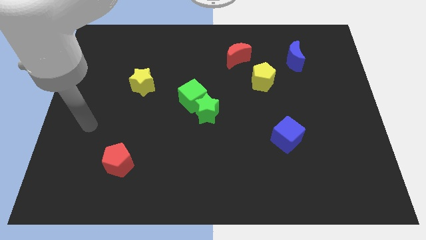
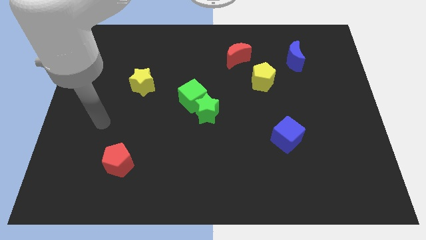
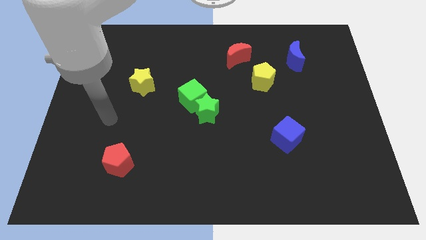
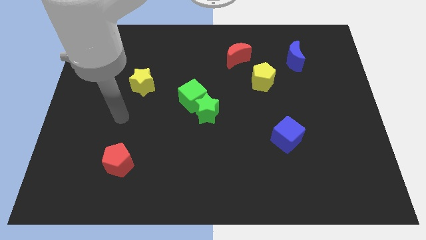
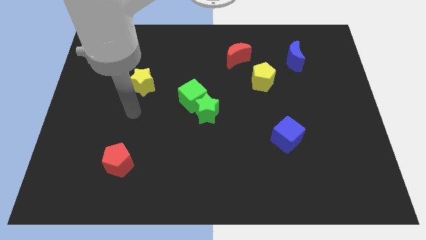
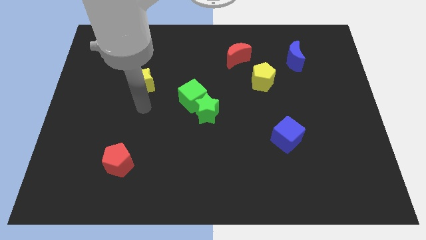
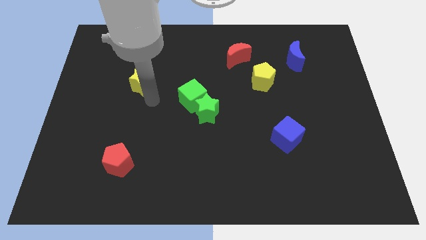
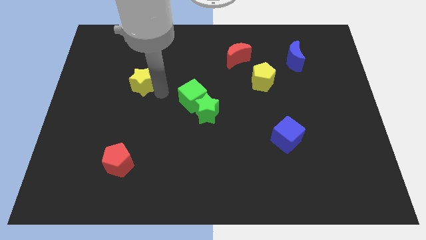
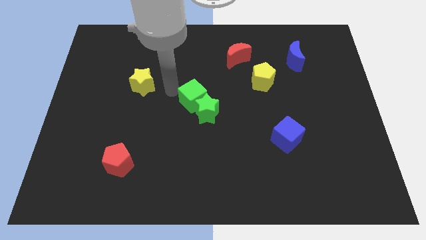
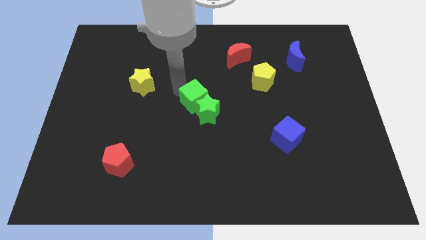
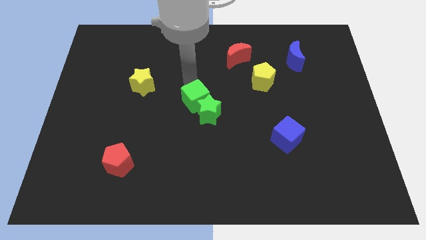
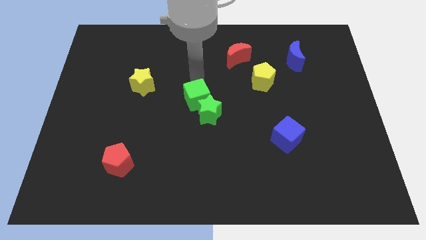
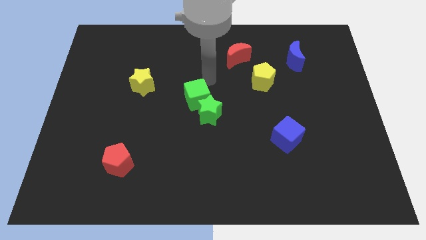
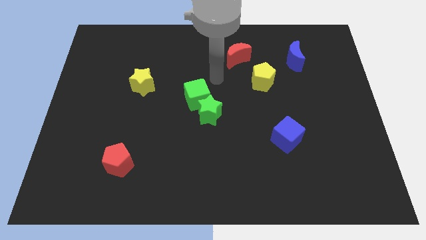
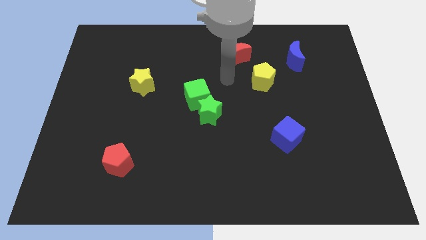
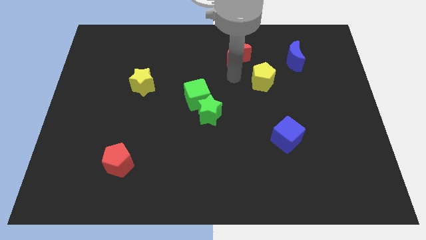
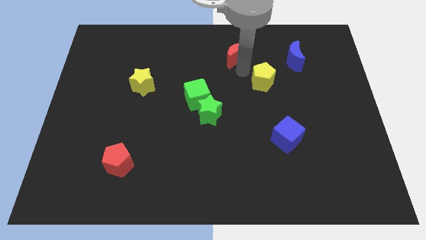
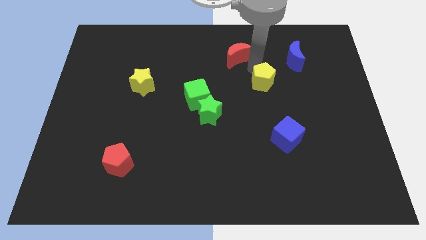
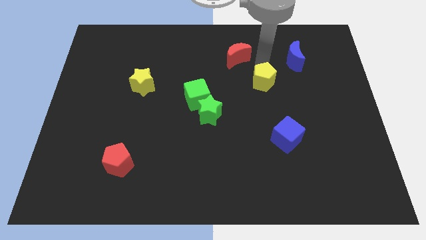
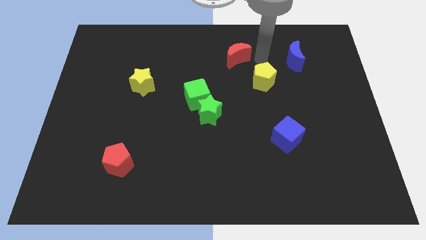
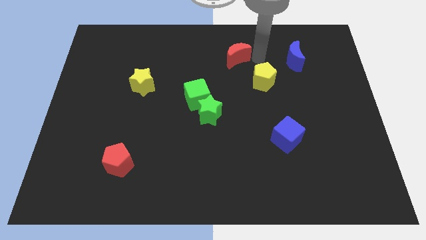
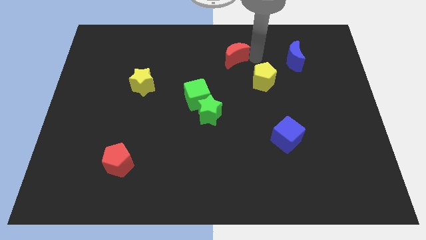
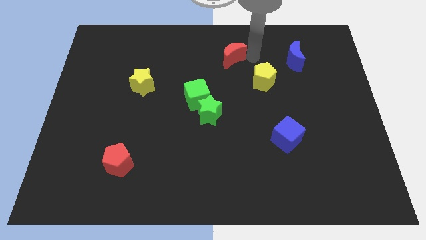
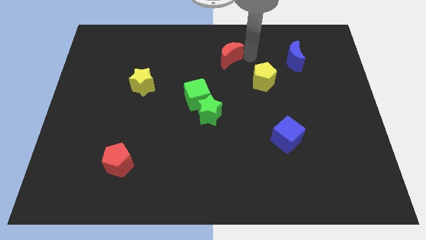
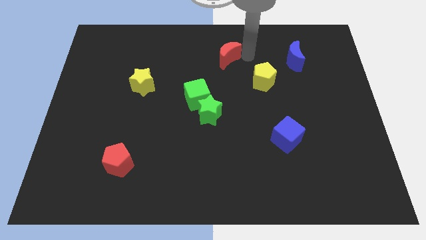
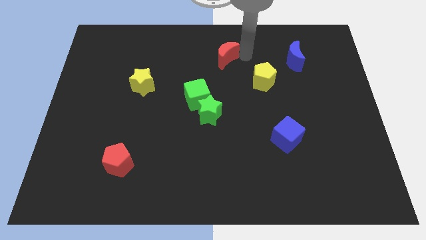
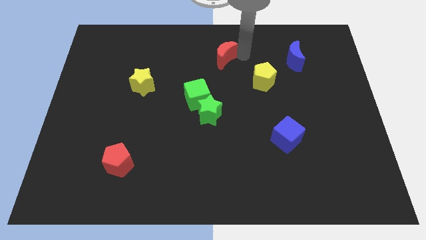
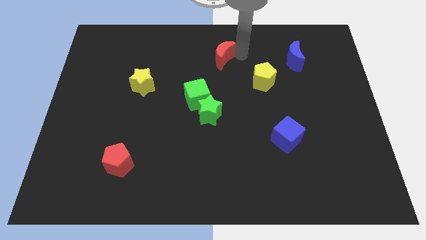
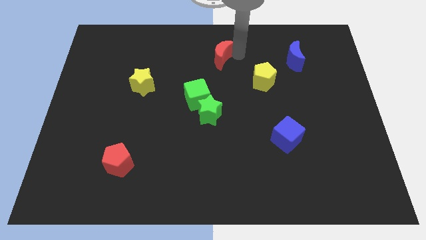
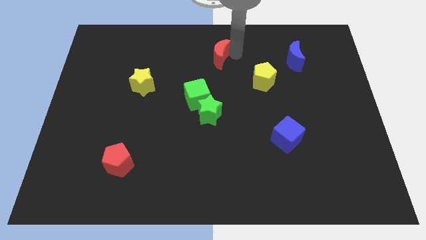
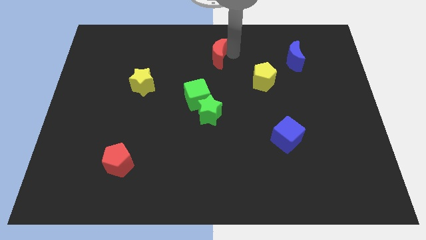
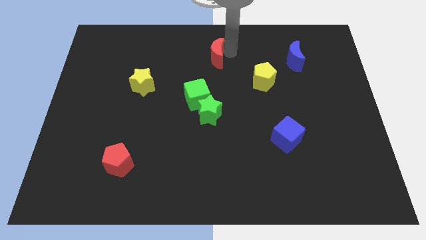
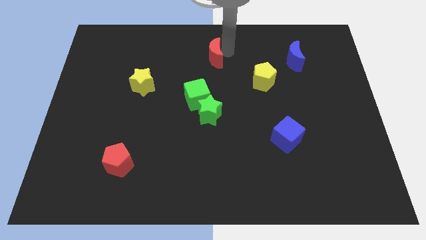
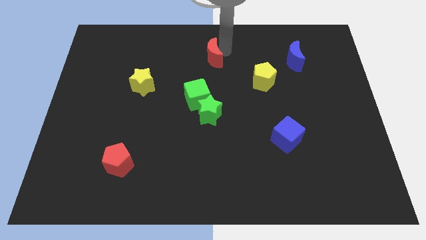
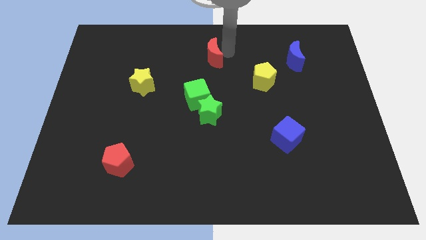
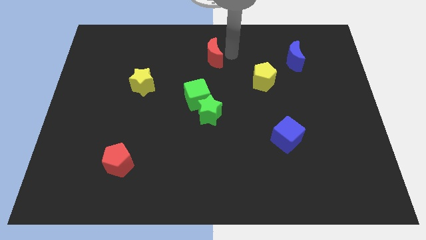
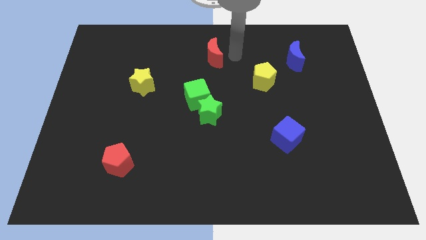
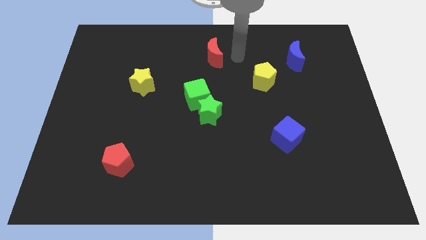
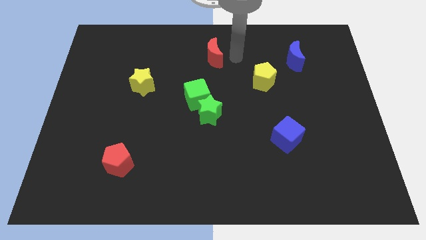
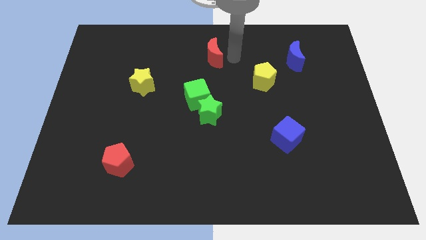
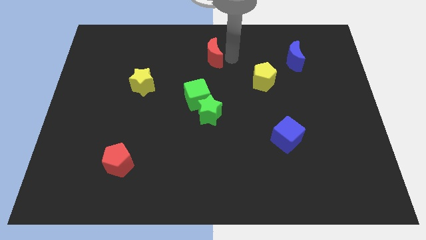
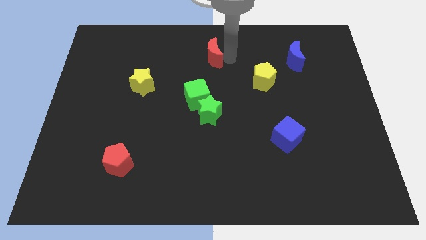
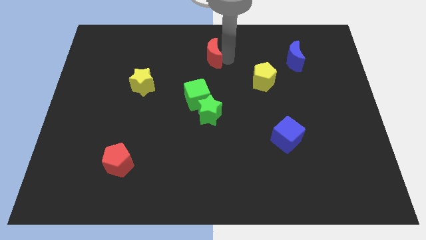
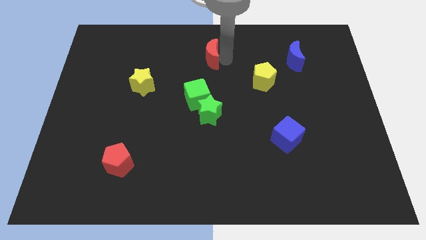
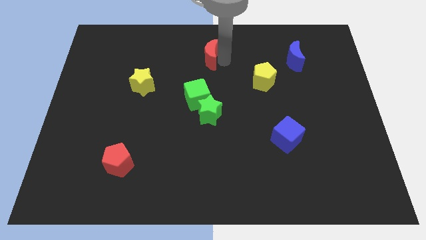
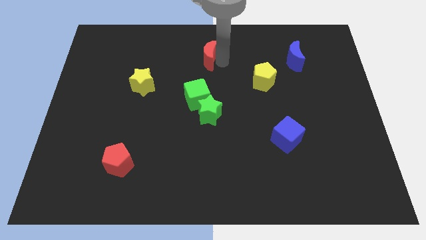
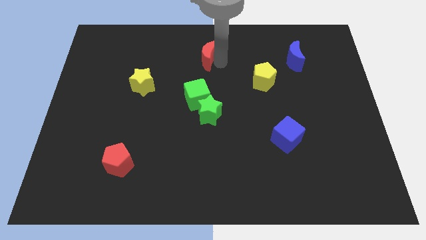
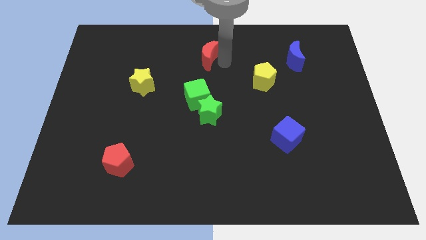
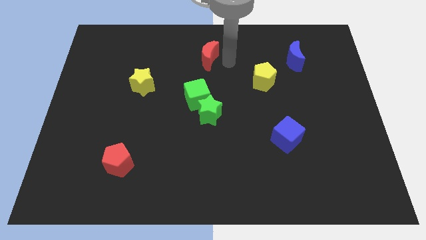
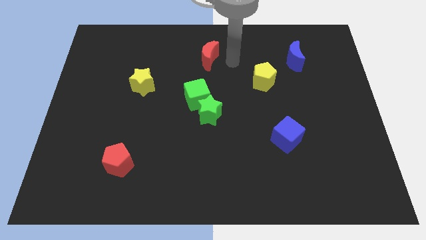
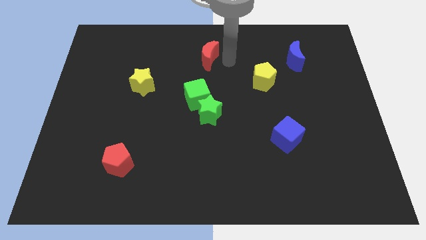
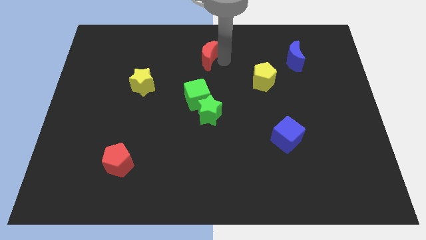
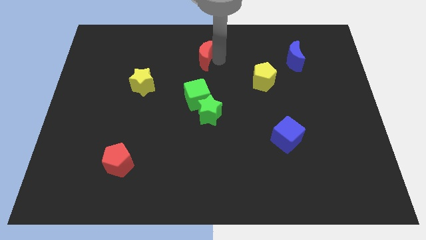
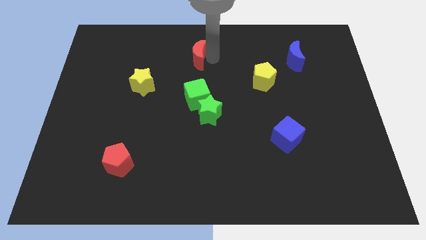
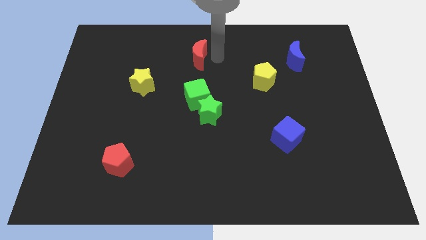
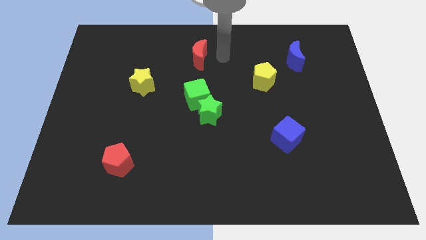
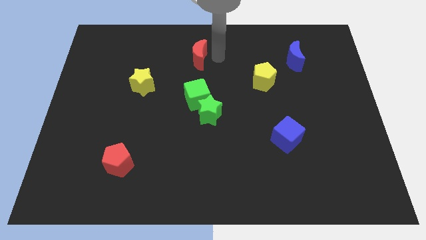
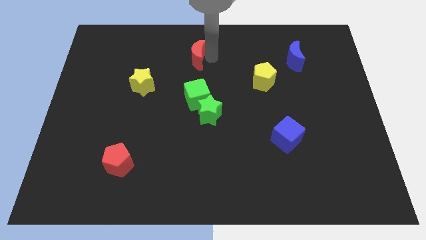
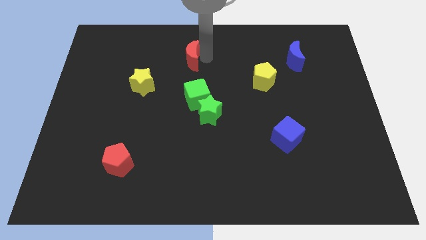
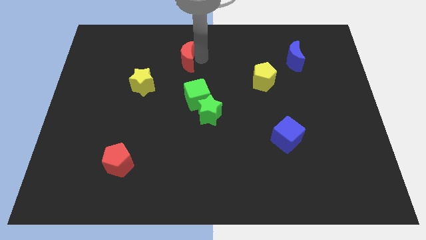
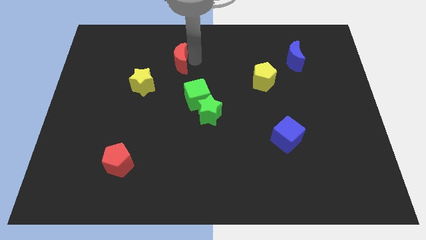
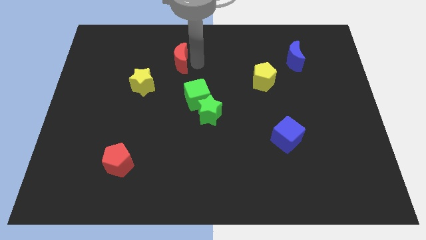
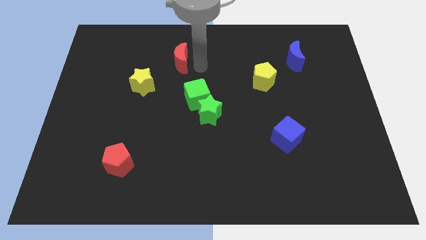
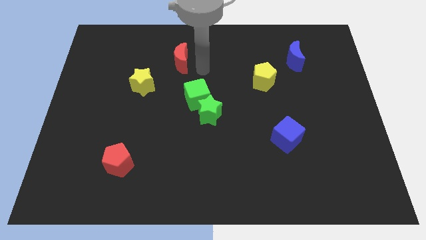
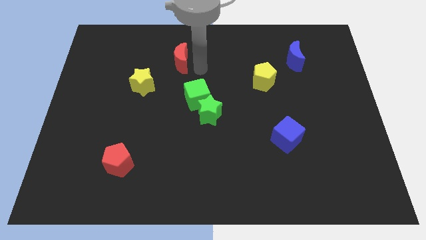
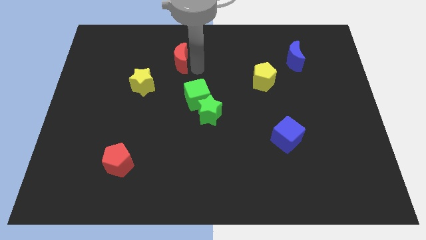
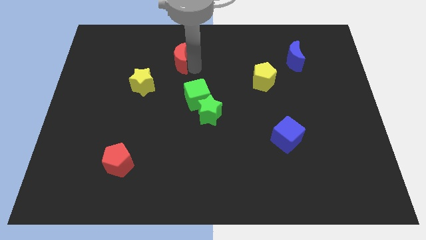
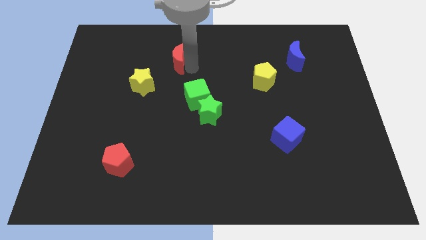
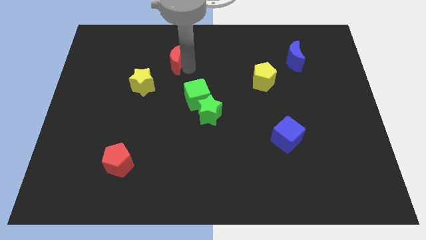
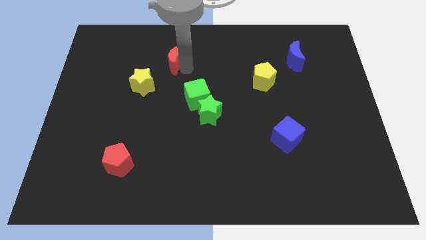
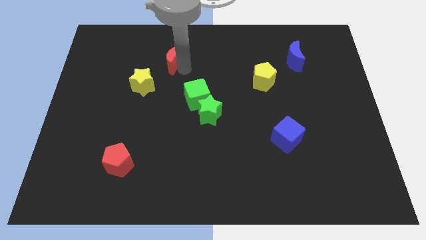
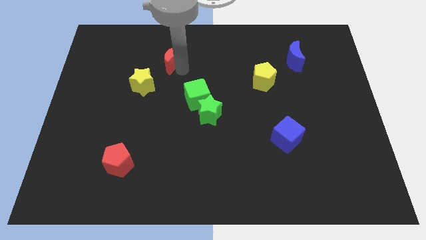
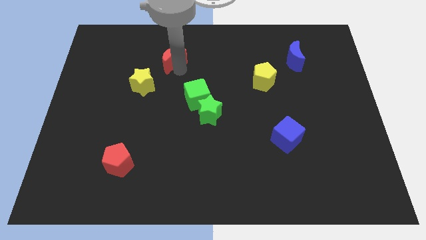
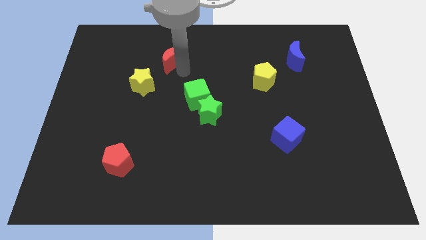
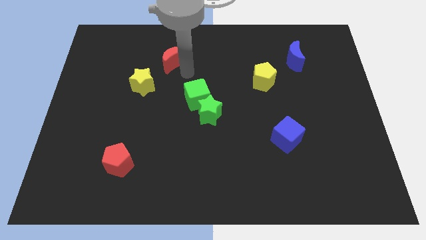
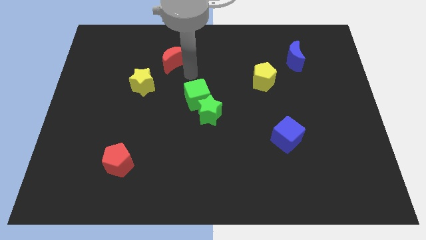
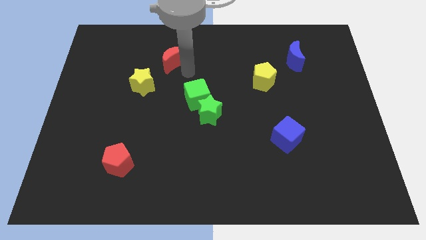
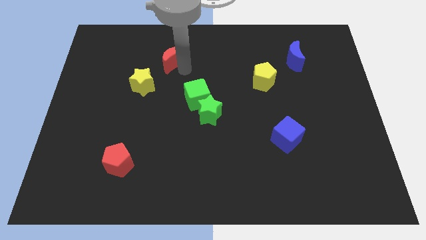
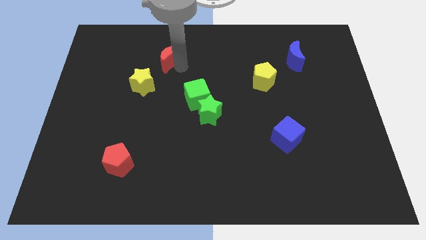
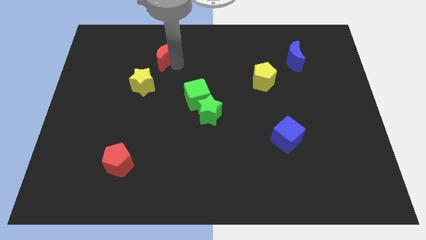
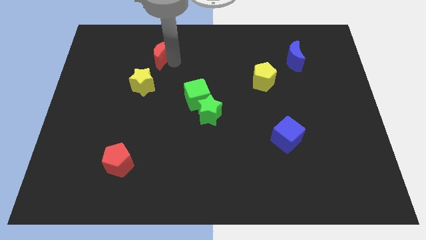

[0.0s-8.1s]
slide the red moon left
